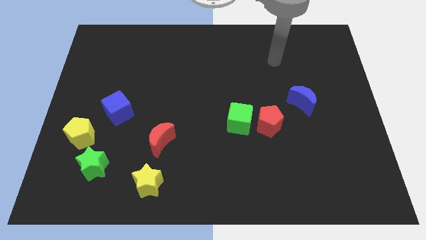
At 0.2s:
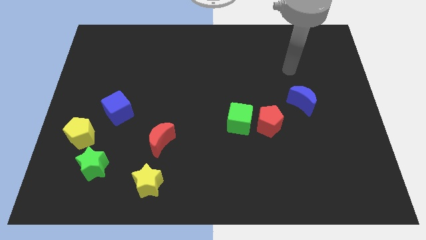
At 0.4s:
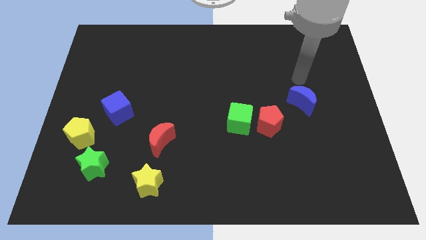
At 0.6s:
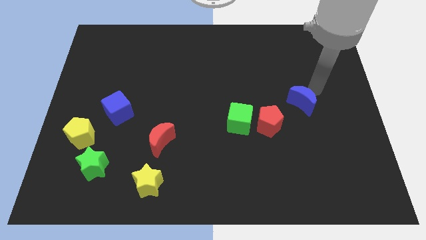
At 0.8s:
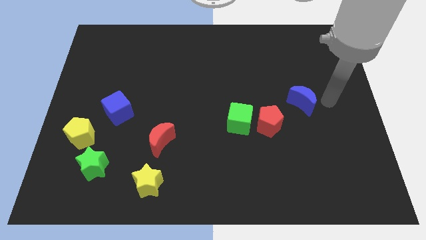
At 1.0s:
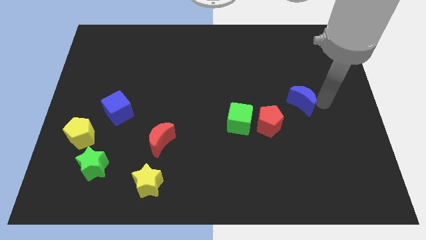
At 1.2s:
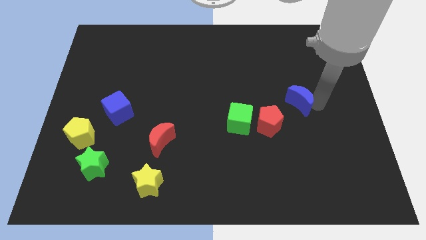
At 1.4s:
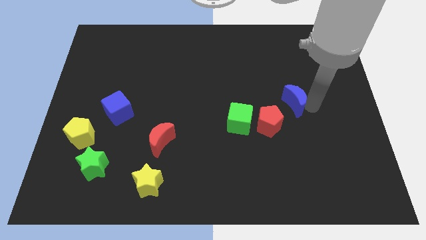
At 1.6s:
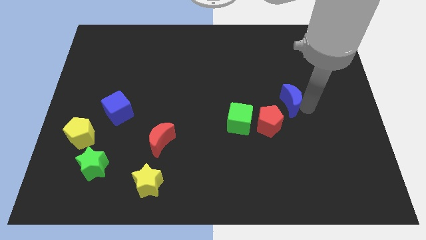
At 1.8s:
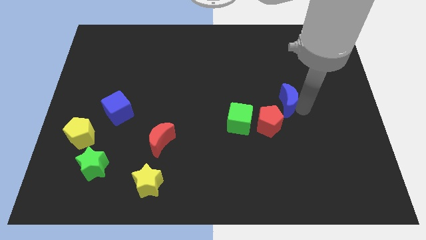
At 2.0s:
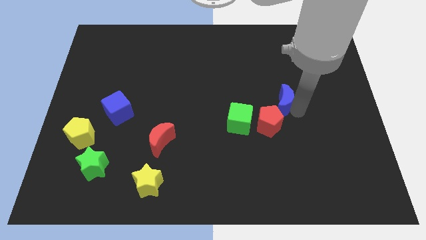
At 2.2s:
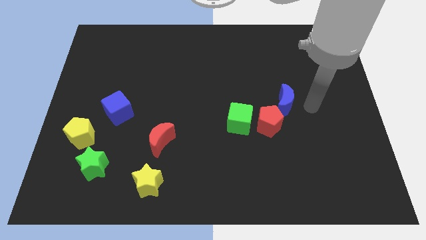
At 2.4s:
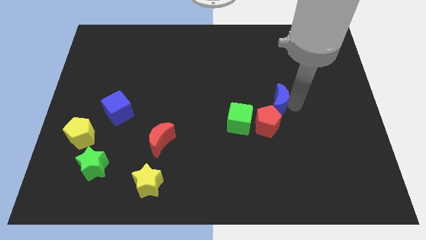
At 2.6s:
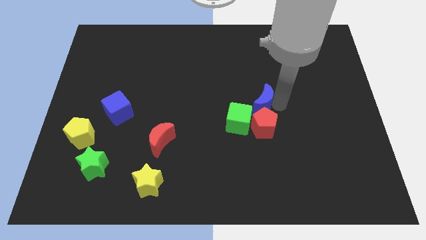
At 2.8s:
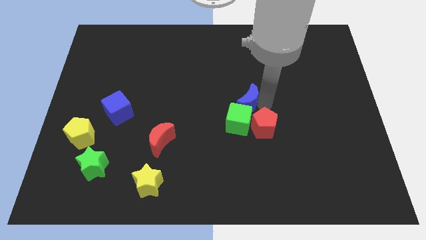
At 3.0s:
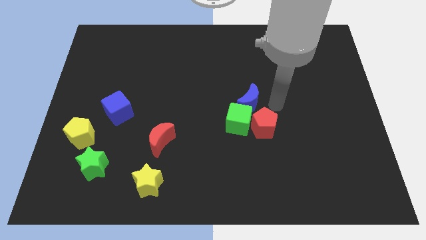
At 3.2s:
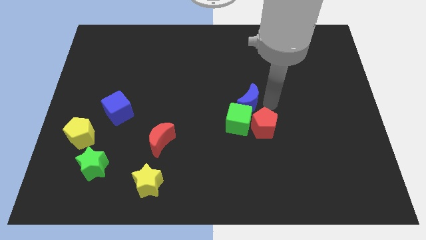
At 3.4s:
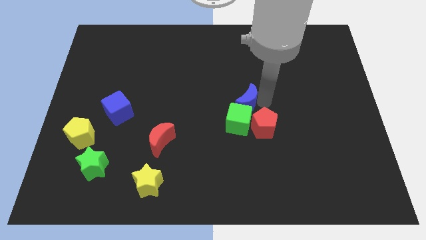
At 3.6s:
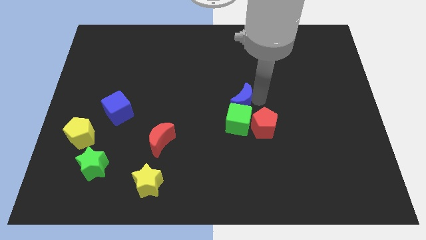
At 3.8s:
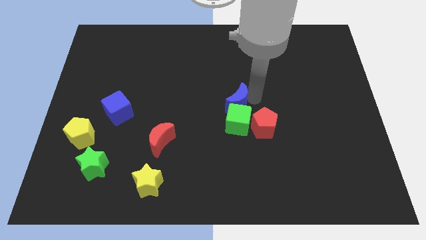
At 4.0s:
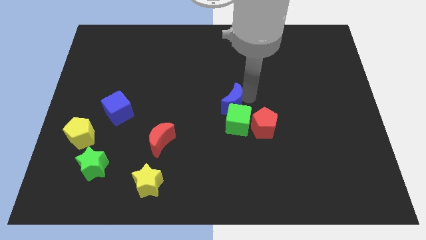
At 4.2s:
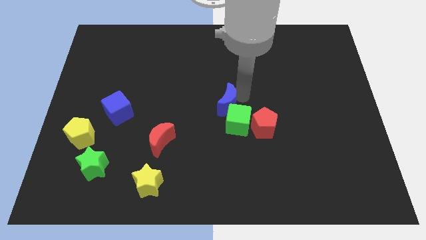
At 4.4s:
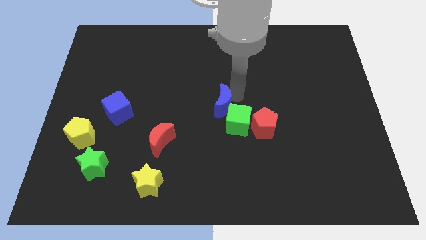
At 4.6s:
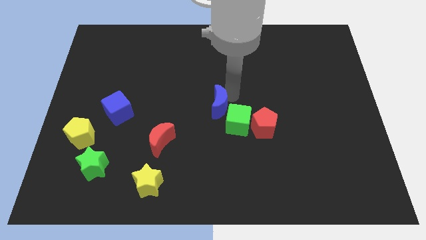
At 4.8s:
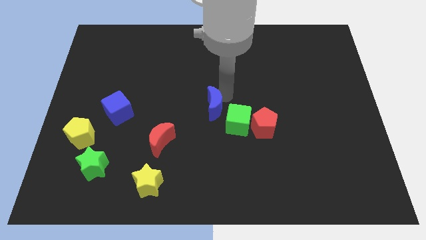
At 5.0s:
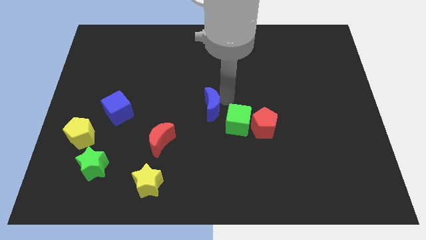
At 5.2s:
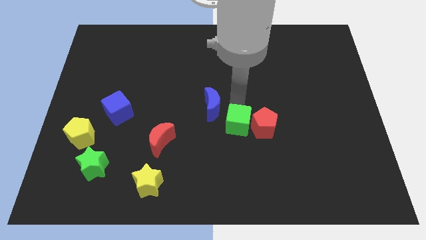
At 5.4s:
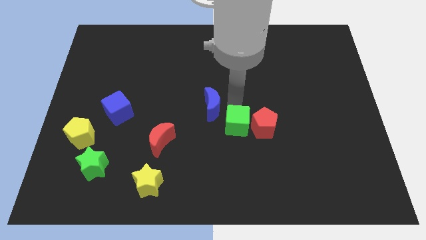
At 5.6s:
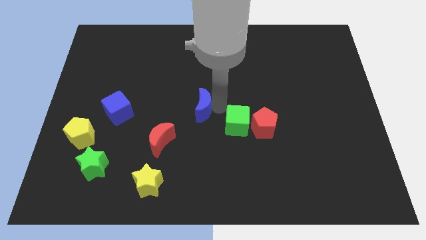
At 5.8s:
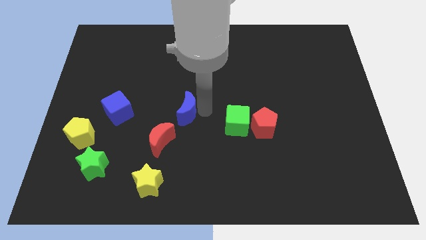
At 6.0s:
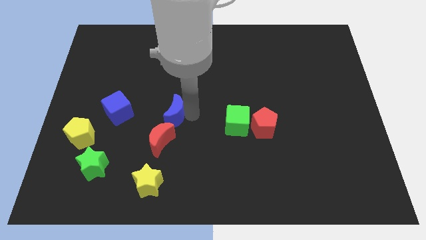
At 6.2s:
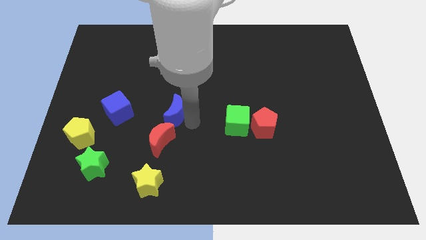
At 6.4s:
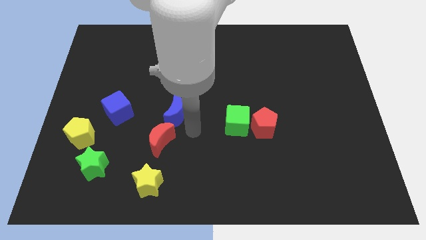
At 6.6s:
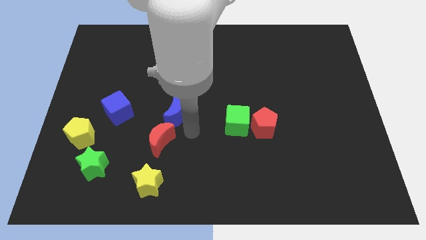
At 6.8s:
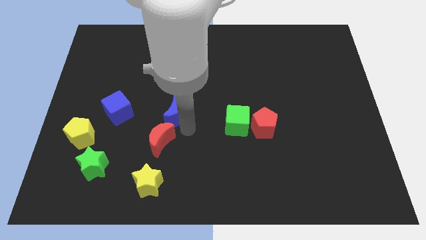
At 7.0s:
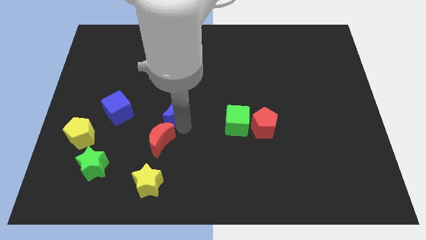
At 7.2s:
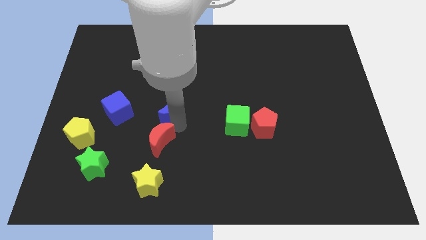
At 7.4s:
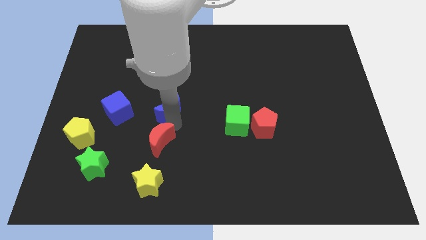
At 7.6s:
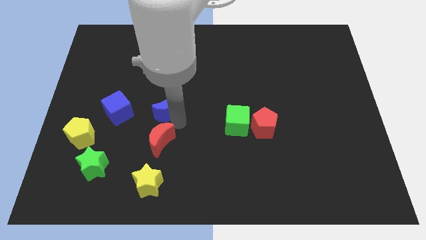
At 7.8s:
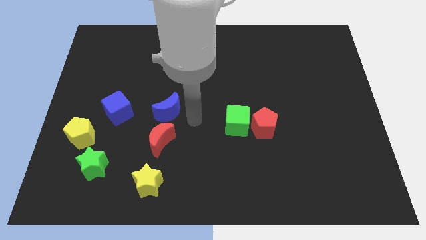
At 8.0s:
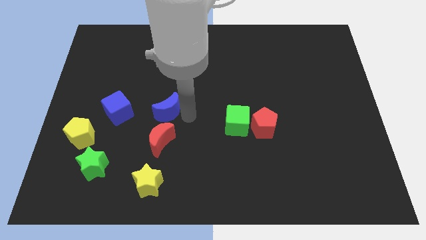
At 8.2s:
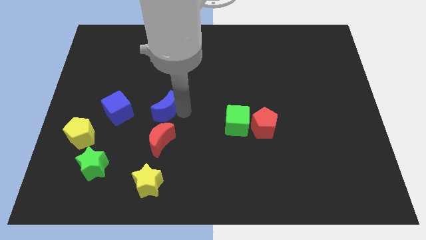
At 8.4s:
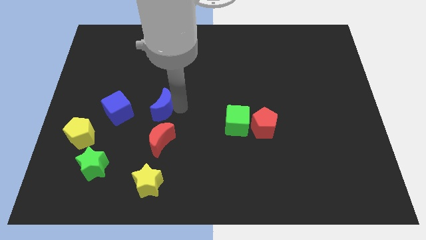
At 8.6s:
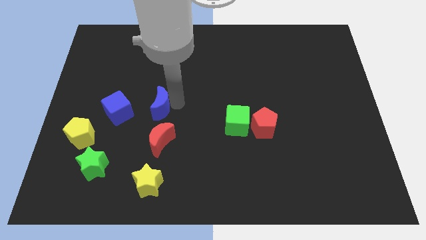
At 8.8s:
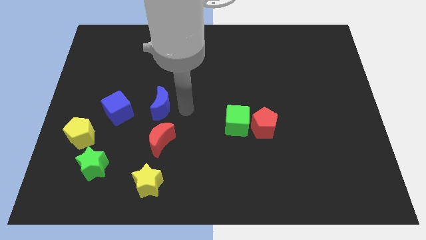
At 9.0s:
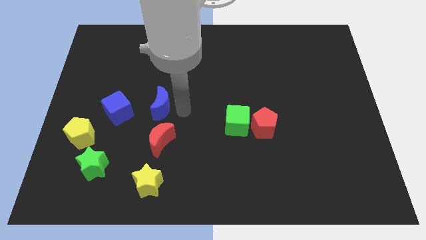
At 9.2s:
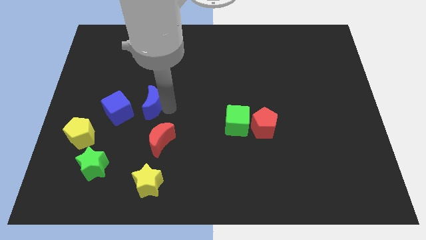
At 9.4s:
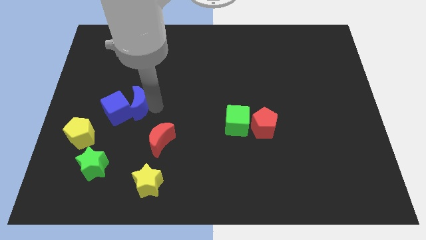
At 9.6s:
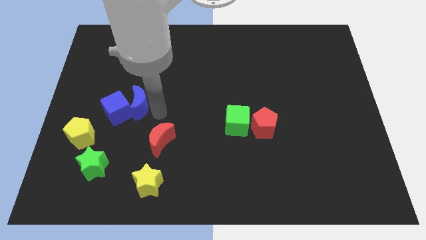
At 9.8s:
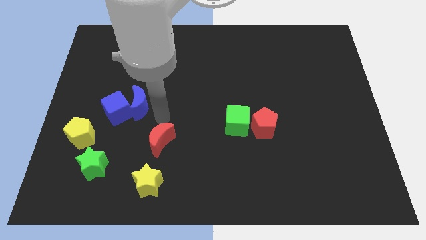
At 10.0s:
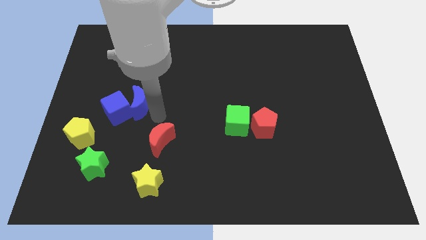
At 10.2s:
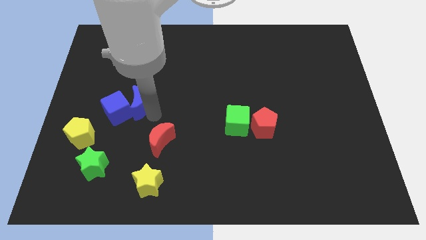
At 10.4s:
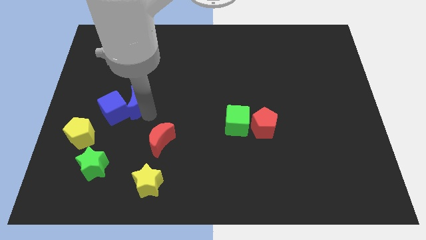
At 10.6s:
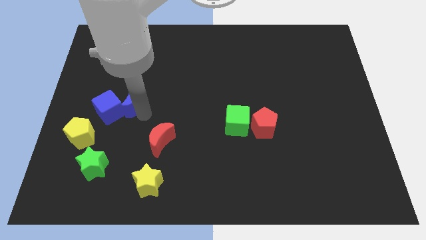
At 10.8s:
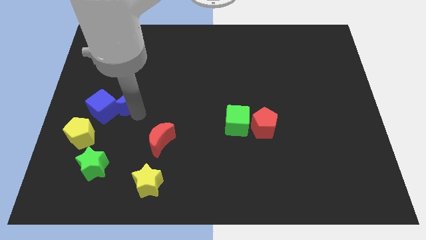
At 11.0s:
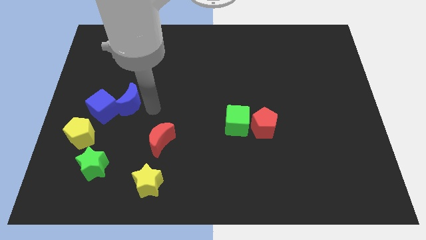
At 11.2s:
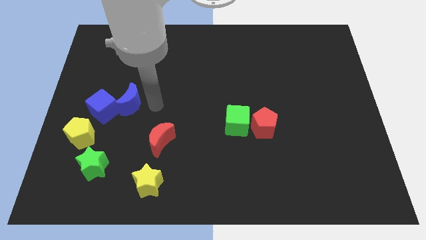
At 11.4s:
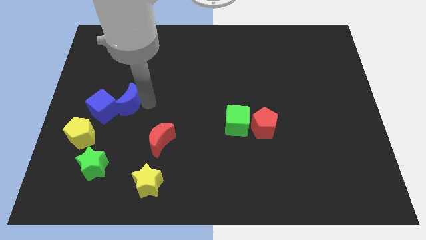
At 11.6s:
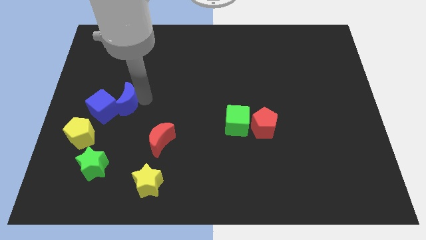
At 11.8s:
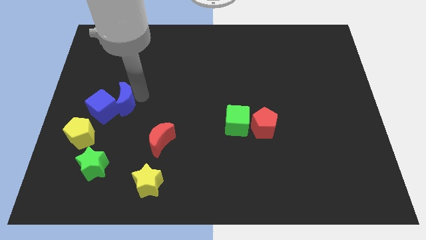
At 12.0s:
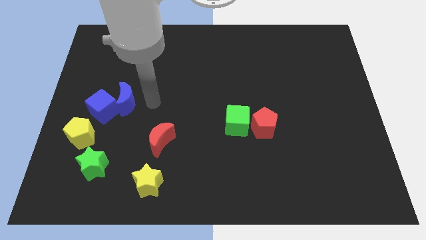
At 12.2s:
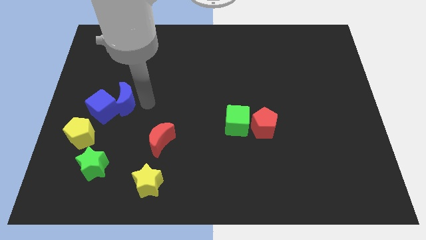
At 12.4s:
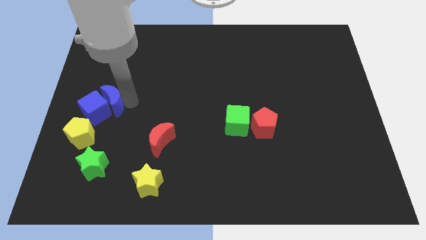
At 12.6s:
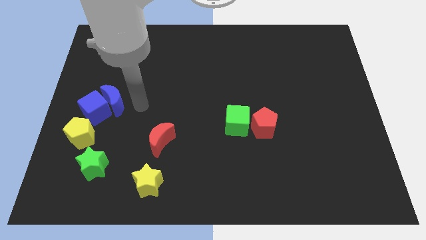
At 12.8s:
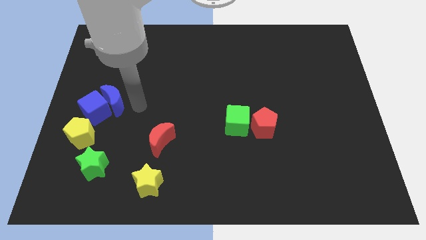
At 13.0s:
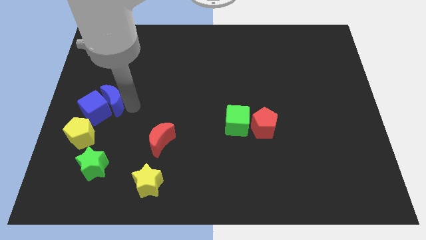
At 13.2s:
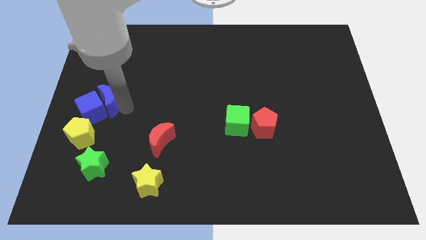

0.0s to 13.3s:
slide the blue moon to the top of the yellow pentagon

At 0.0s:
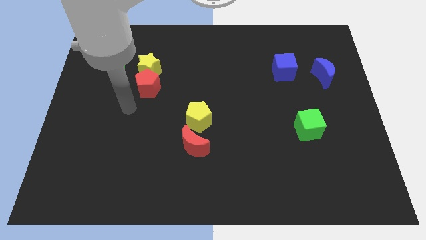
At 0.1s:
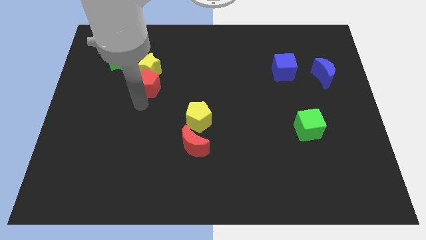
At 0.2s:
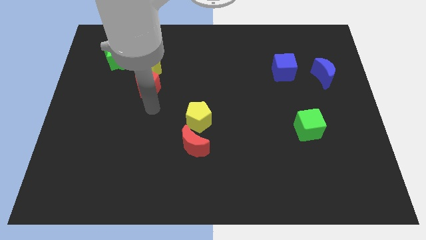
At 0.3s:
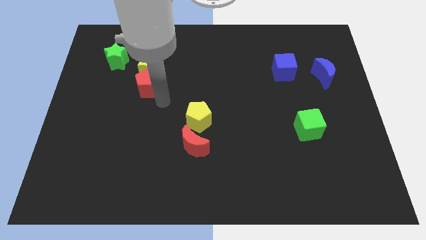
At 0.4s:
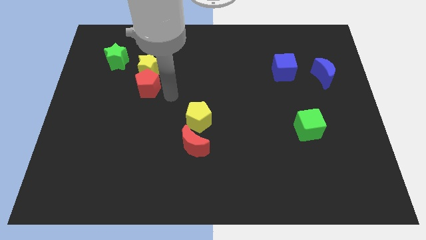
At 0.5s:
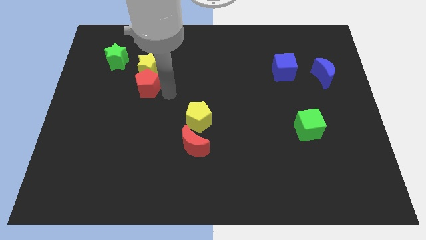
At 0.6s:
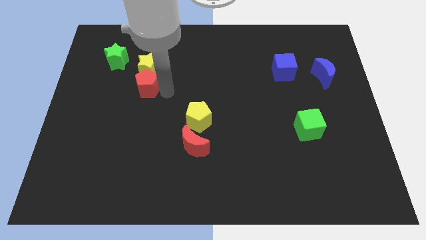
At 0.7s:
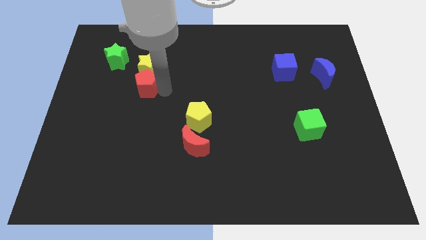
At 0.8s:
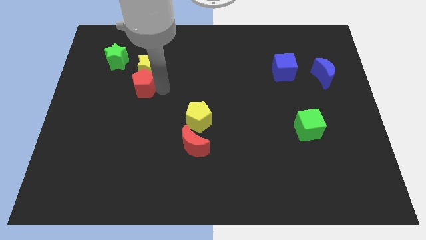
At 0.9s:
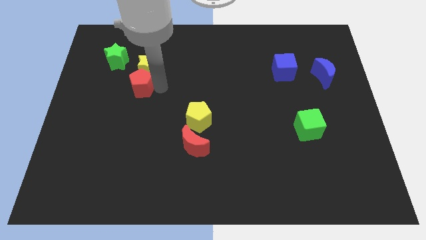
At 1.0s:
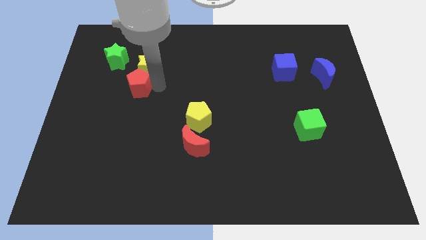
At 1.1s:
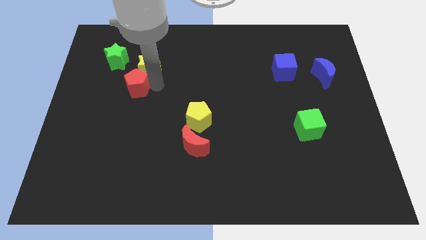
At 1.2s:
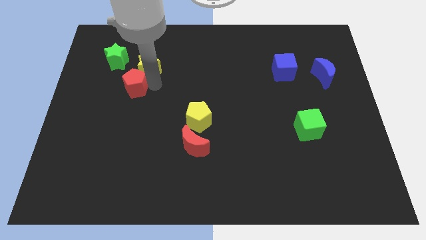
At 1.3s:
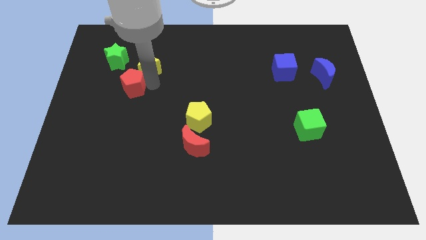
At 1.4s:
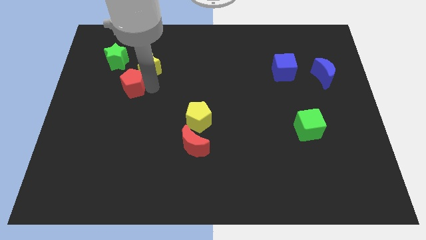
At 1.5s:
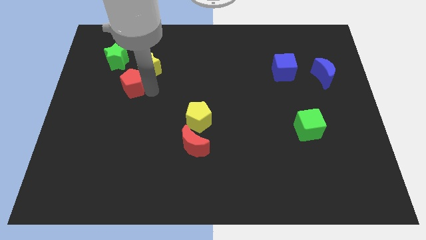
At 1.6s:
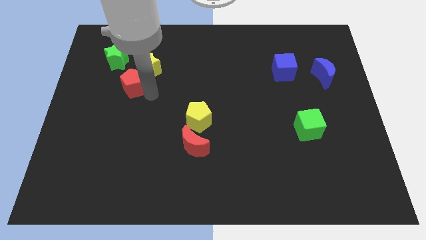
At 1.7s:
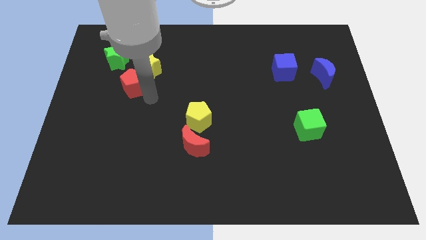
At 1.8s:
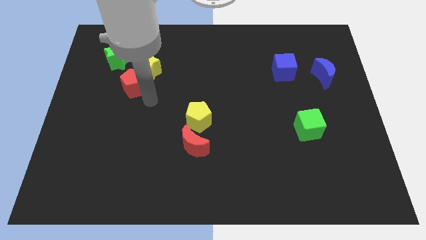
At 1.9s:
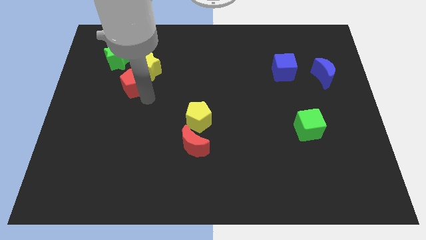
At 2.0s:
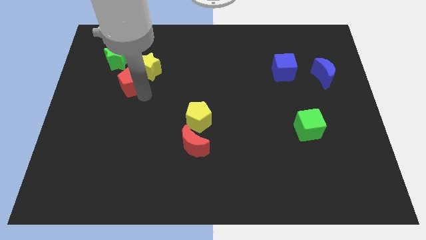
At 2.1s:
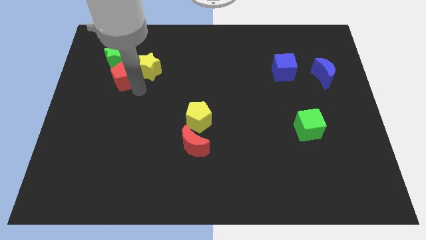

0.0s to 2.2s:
put the red pentagon to the left of the yellow star
